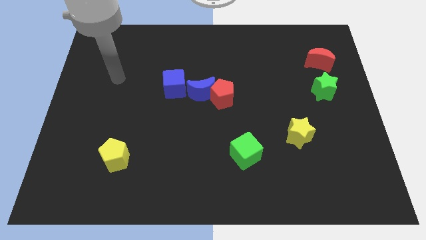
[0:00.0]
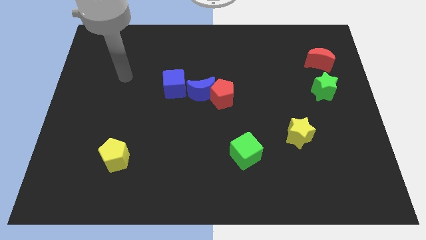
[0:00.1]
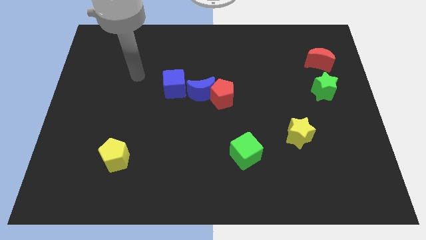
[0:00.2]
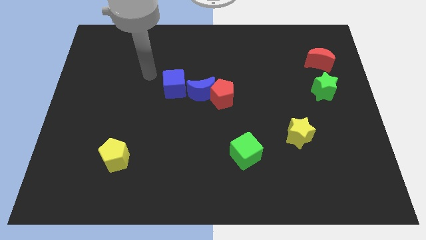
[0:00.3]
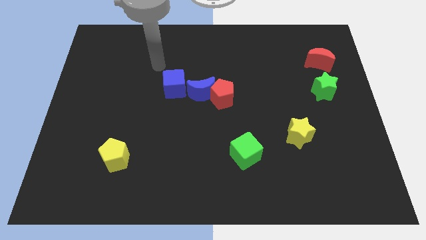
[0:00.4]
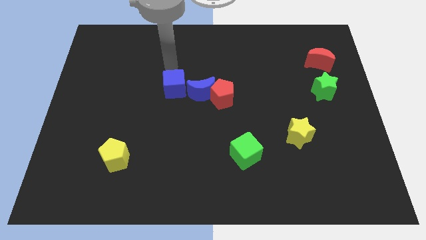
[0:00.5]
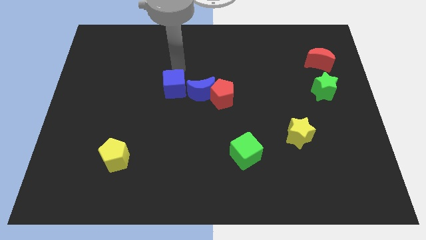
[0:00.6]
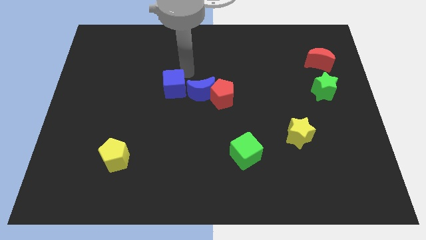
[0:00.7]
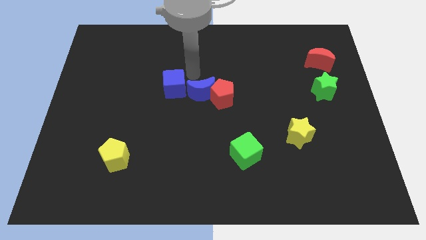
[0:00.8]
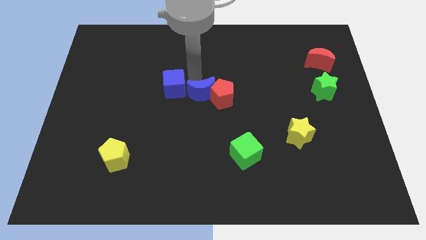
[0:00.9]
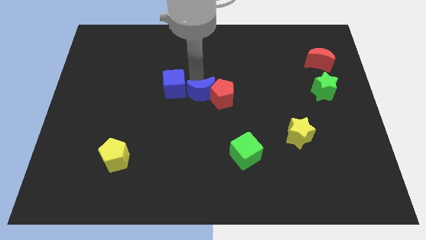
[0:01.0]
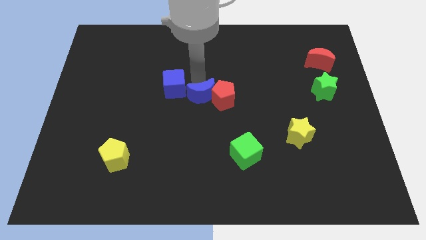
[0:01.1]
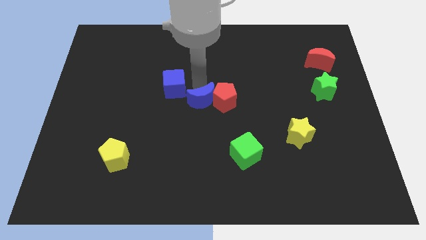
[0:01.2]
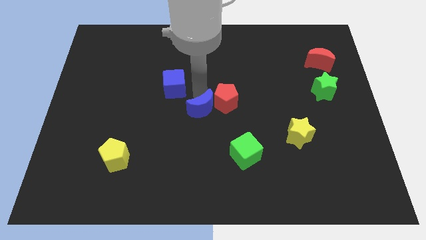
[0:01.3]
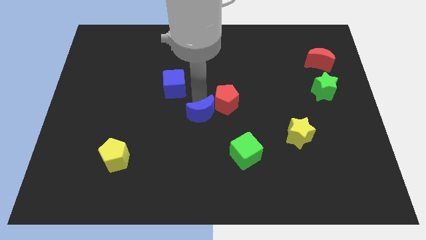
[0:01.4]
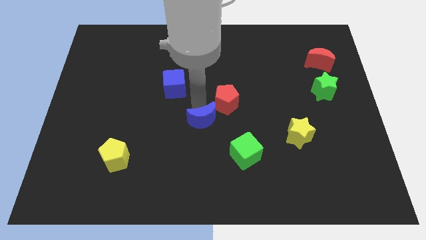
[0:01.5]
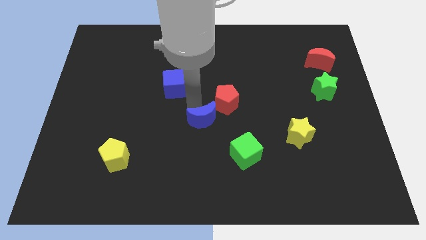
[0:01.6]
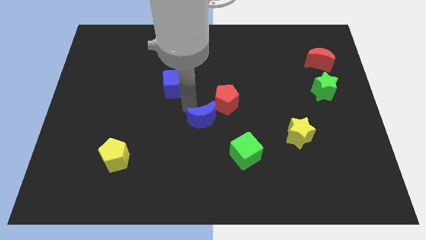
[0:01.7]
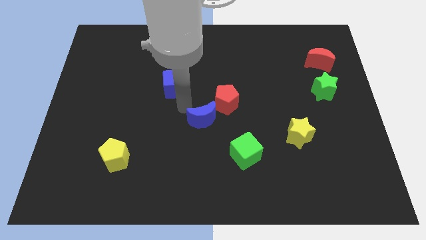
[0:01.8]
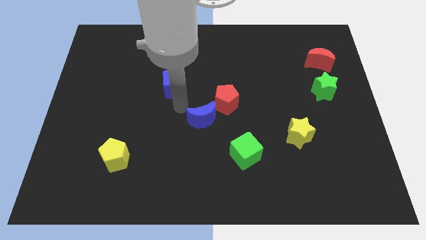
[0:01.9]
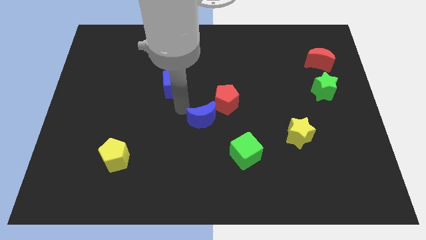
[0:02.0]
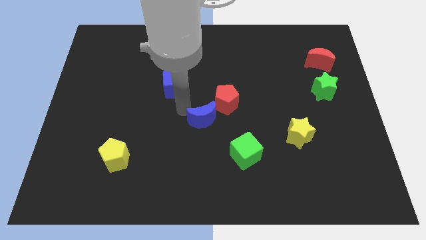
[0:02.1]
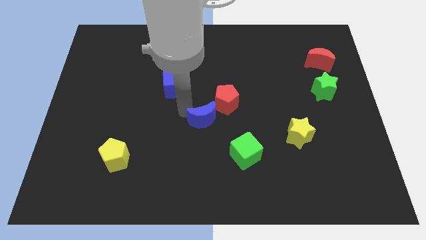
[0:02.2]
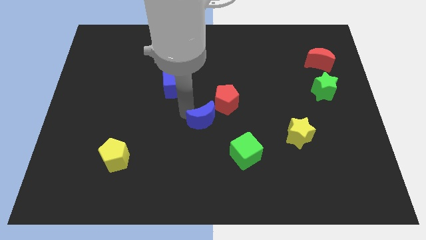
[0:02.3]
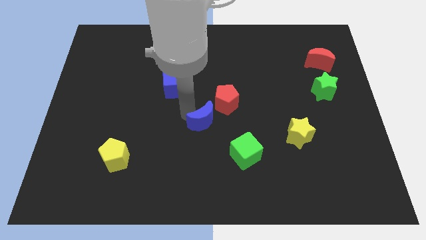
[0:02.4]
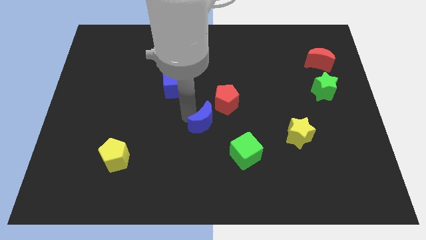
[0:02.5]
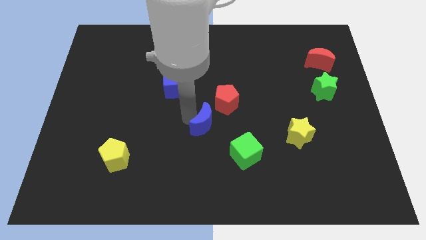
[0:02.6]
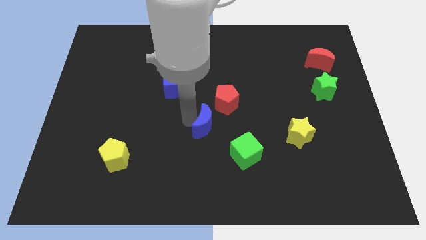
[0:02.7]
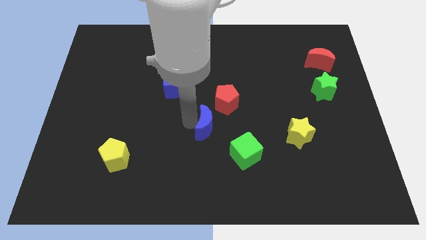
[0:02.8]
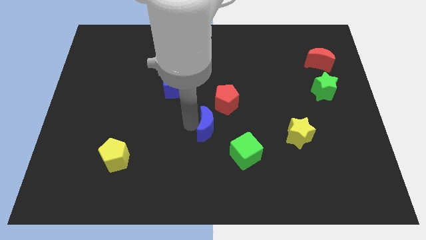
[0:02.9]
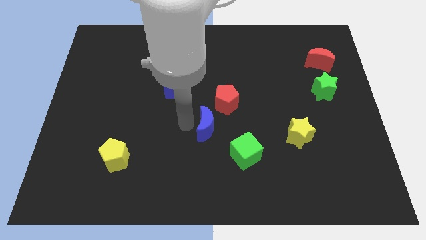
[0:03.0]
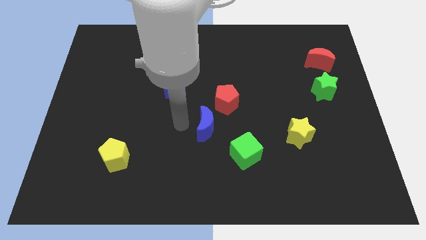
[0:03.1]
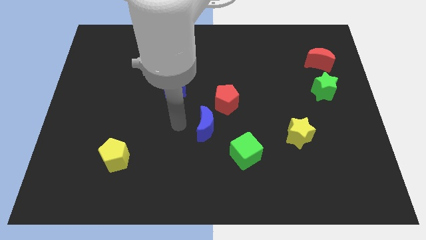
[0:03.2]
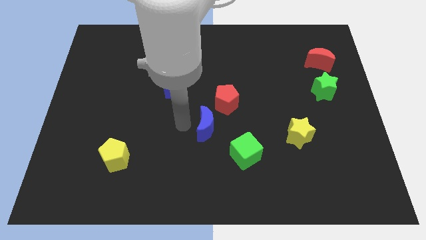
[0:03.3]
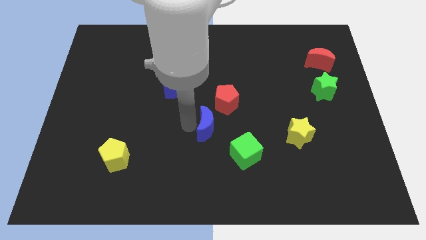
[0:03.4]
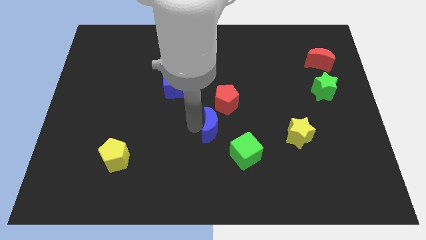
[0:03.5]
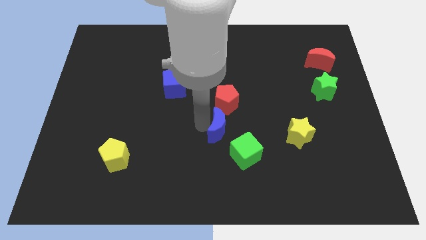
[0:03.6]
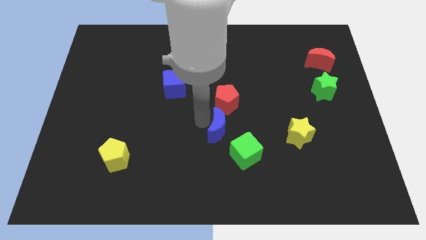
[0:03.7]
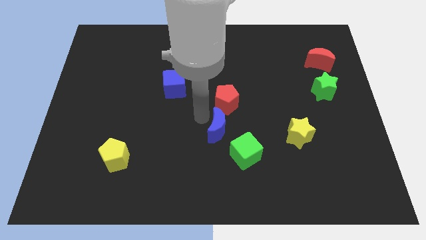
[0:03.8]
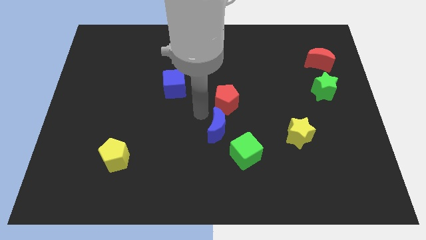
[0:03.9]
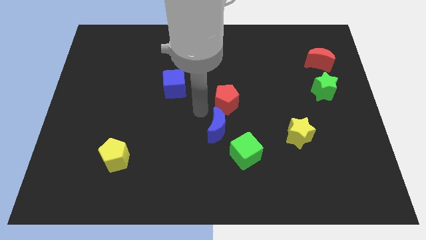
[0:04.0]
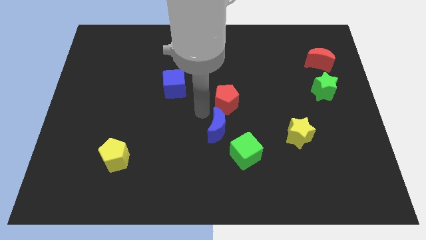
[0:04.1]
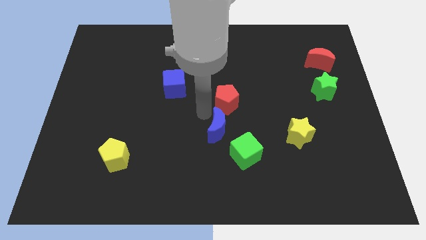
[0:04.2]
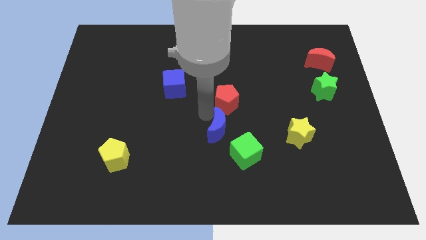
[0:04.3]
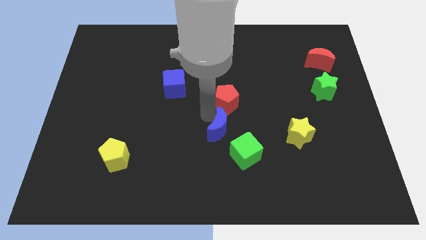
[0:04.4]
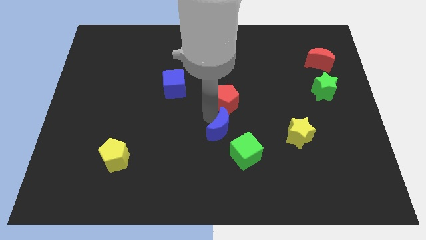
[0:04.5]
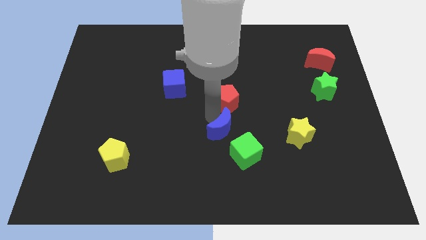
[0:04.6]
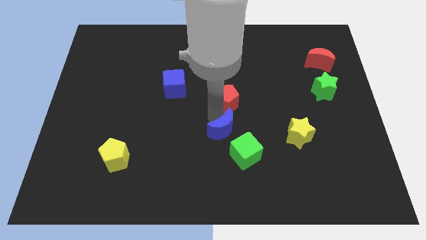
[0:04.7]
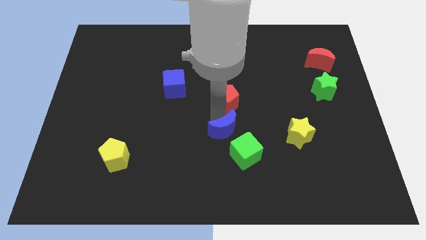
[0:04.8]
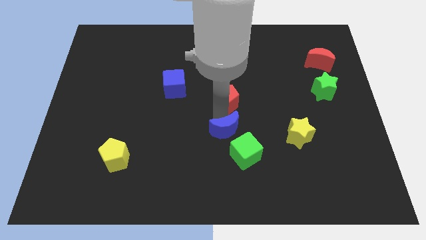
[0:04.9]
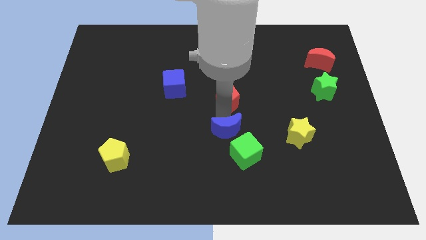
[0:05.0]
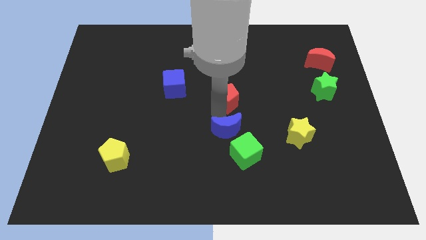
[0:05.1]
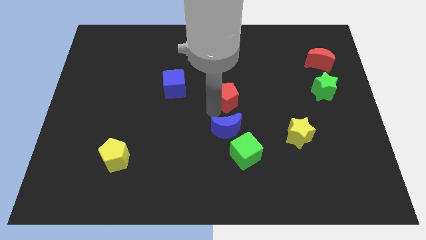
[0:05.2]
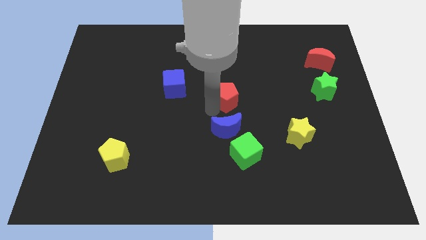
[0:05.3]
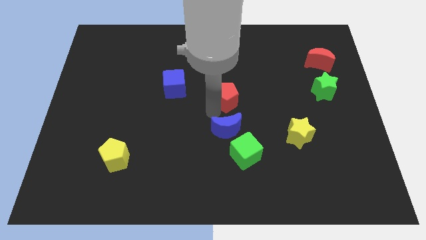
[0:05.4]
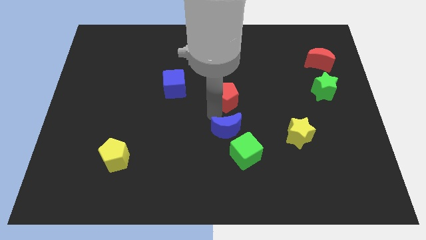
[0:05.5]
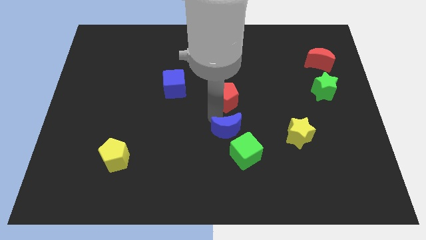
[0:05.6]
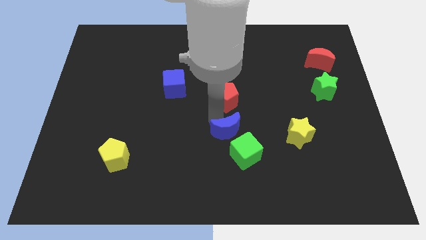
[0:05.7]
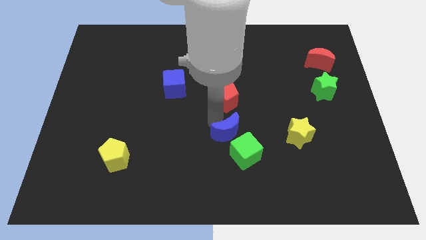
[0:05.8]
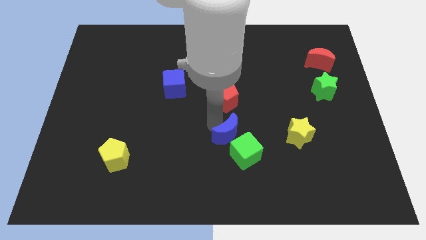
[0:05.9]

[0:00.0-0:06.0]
push the blue moon to the green cube

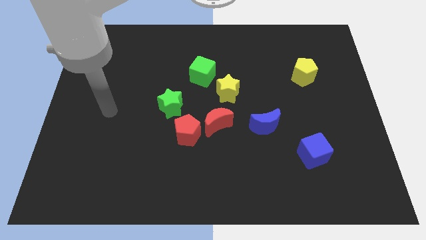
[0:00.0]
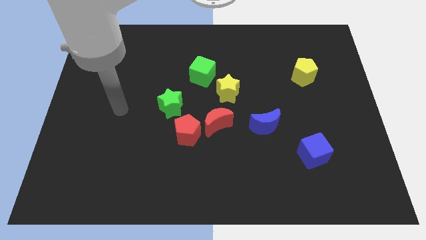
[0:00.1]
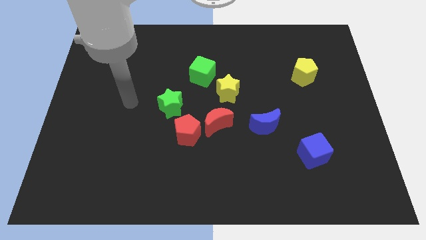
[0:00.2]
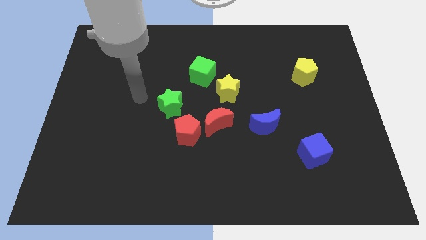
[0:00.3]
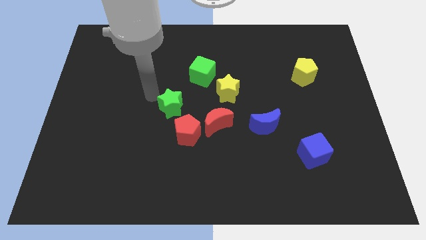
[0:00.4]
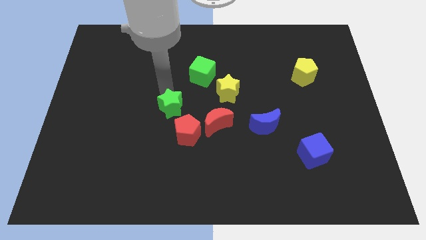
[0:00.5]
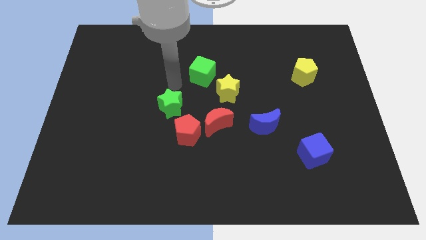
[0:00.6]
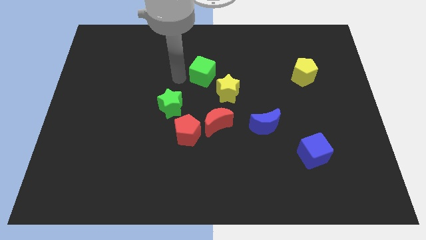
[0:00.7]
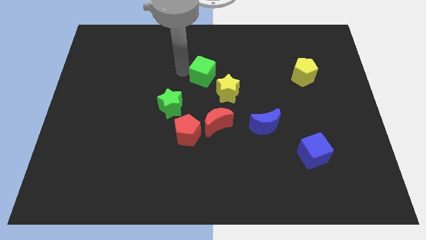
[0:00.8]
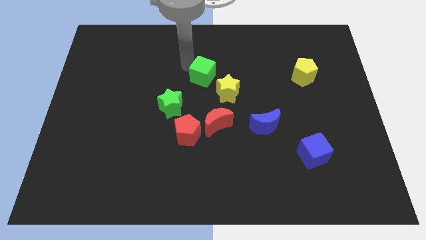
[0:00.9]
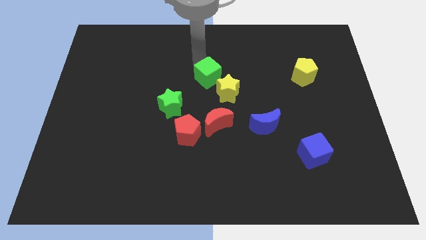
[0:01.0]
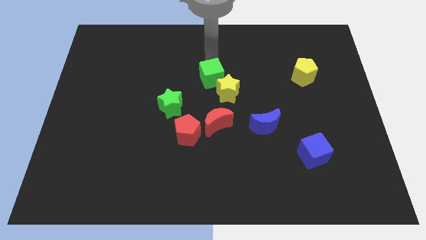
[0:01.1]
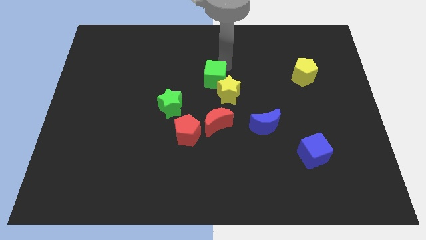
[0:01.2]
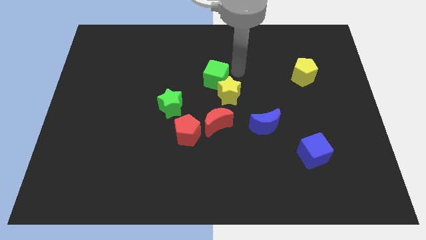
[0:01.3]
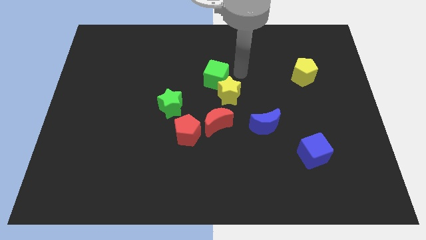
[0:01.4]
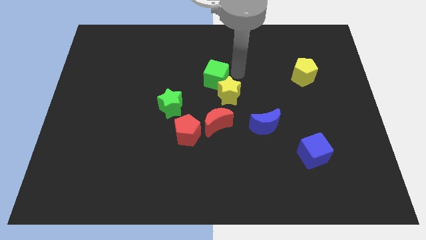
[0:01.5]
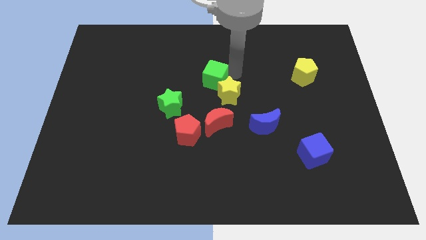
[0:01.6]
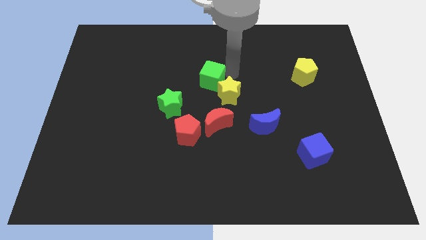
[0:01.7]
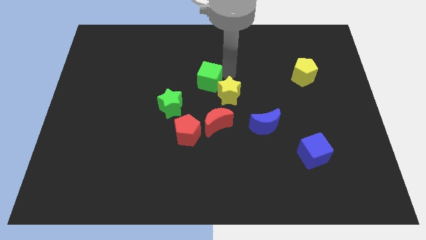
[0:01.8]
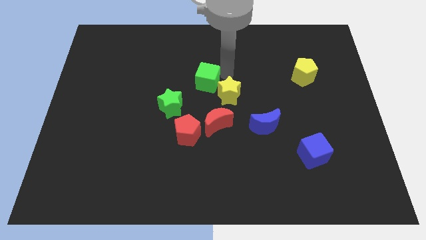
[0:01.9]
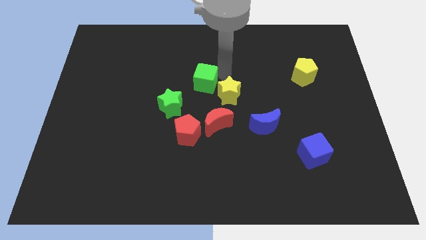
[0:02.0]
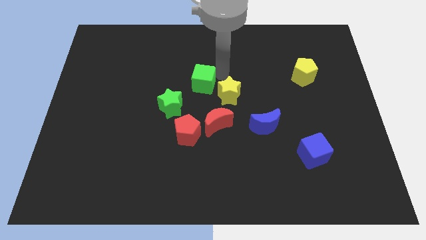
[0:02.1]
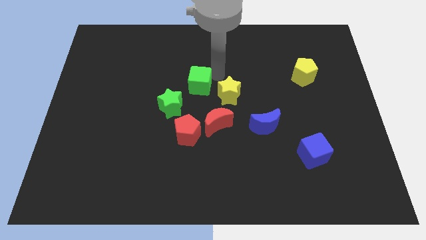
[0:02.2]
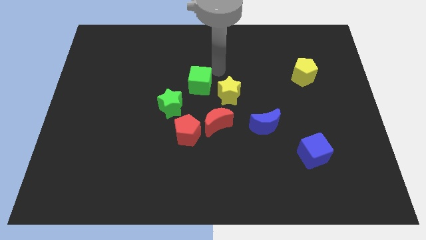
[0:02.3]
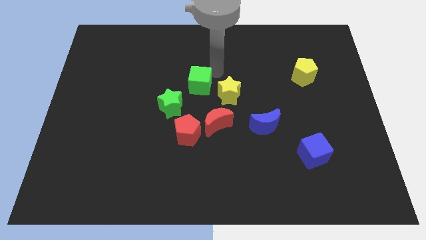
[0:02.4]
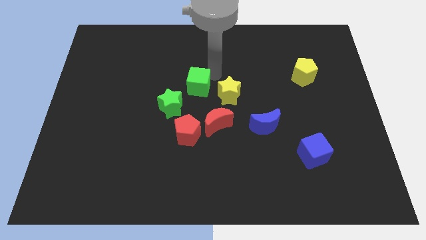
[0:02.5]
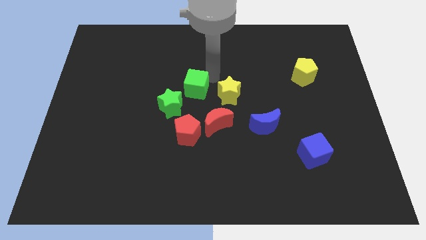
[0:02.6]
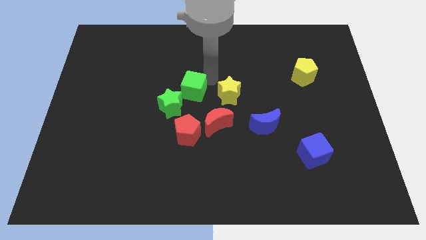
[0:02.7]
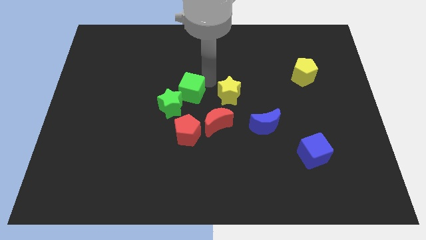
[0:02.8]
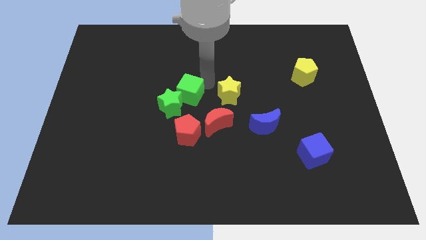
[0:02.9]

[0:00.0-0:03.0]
slide the green cube next to the green star
